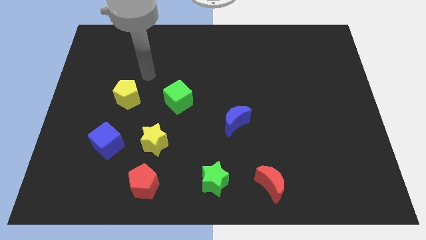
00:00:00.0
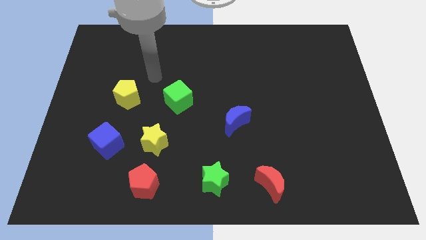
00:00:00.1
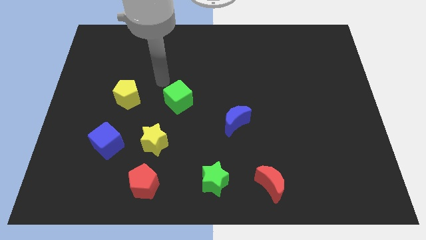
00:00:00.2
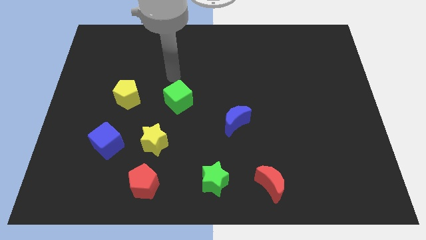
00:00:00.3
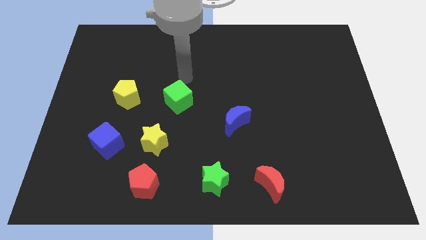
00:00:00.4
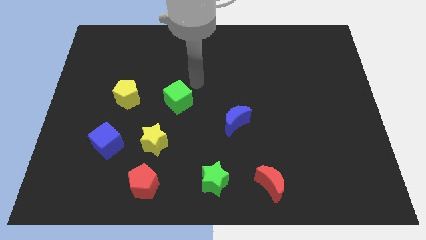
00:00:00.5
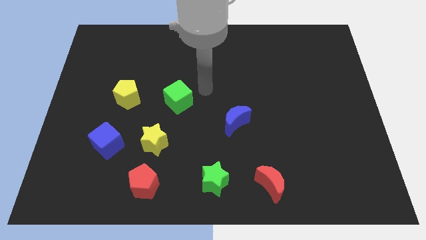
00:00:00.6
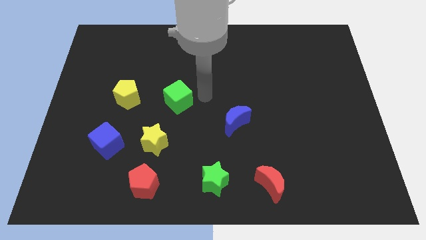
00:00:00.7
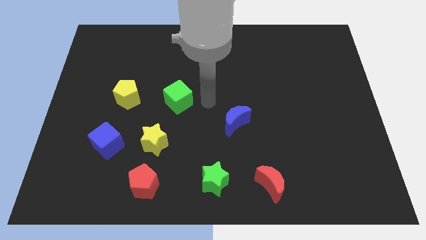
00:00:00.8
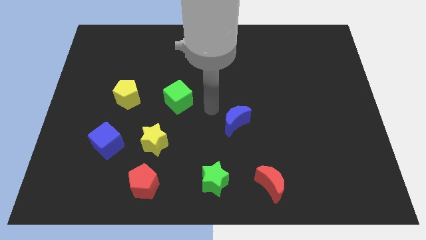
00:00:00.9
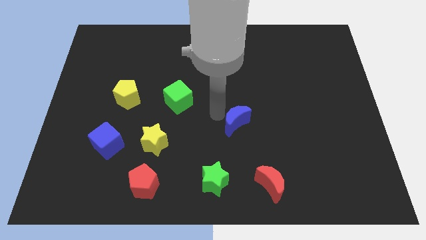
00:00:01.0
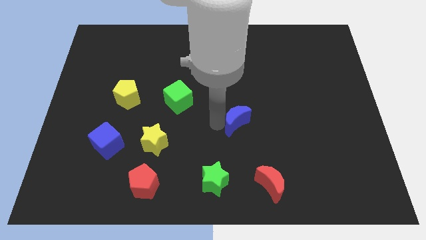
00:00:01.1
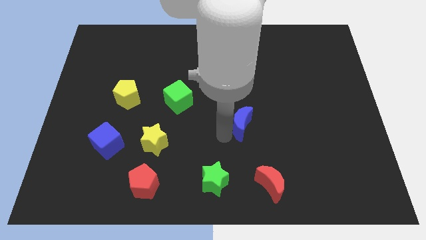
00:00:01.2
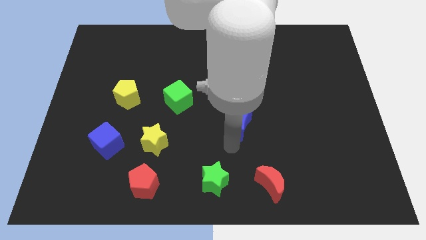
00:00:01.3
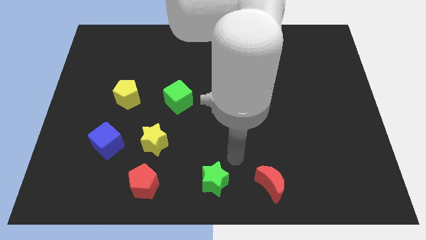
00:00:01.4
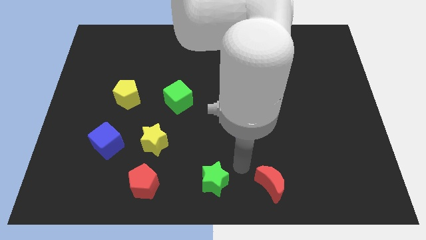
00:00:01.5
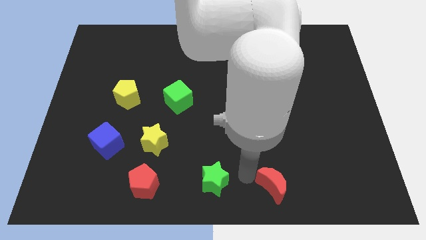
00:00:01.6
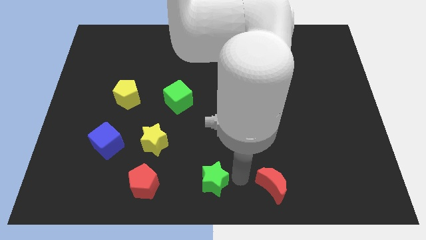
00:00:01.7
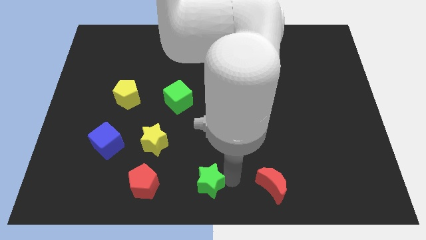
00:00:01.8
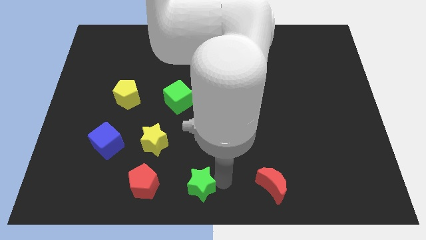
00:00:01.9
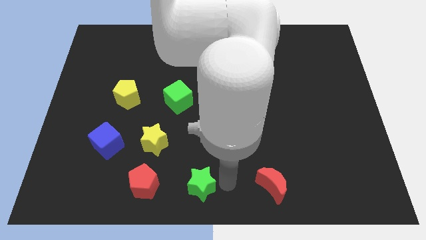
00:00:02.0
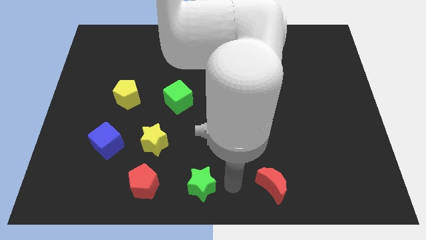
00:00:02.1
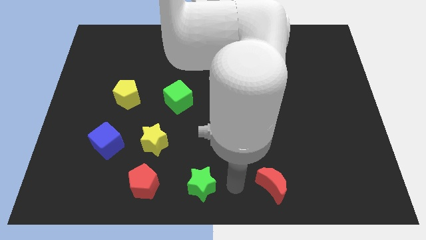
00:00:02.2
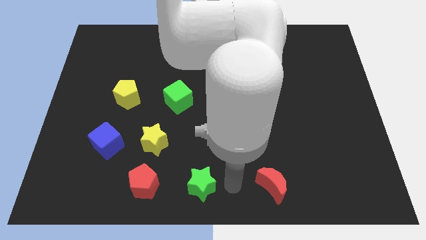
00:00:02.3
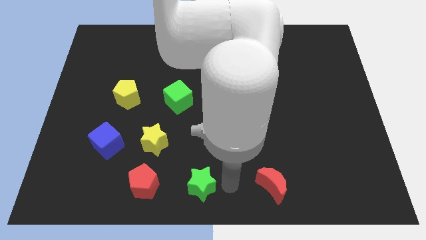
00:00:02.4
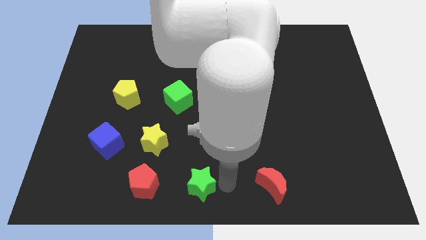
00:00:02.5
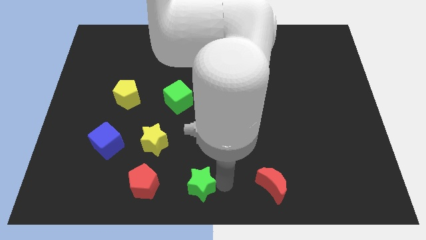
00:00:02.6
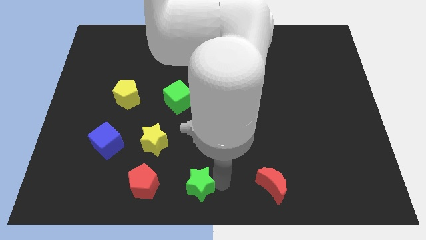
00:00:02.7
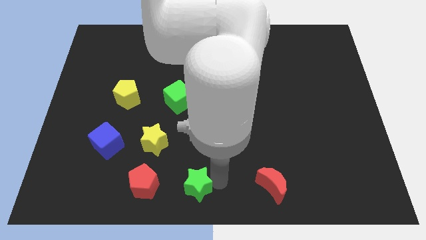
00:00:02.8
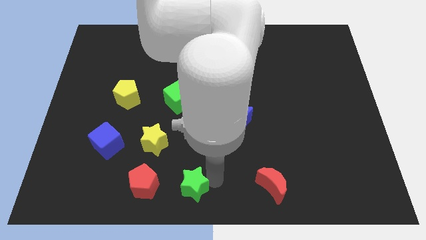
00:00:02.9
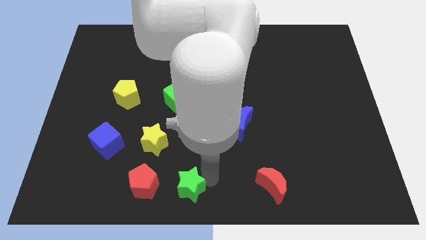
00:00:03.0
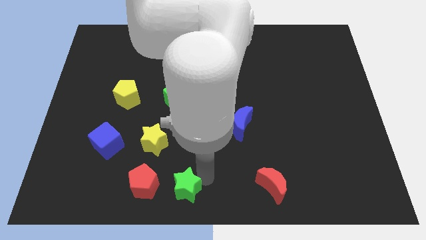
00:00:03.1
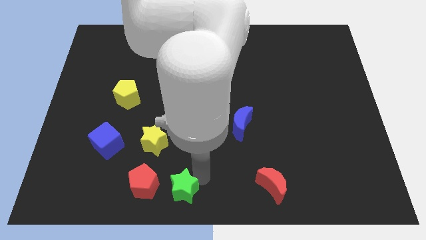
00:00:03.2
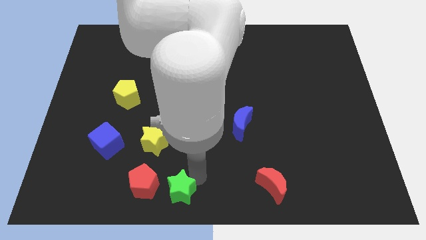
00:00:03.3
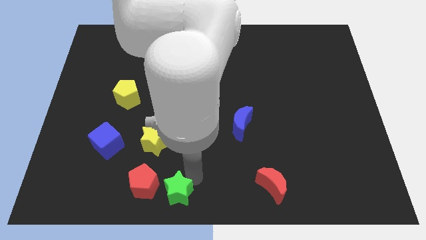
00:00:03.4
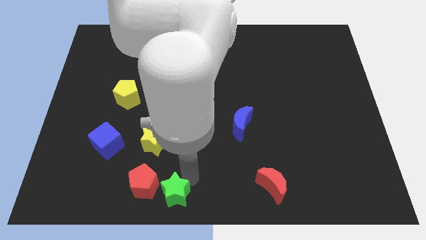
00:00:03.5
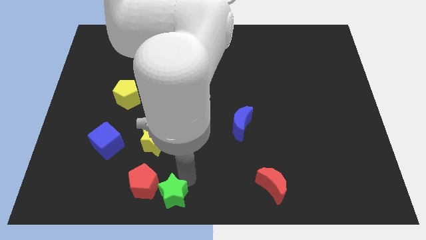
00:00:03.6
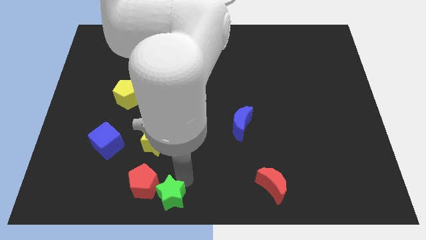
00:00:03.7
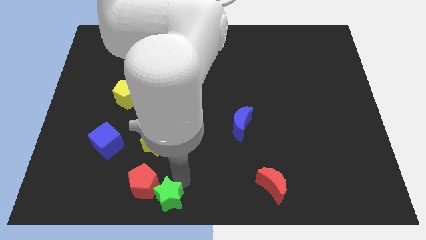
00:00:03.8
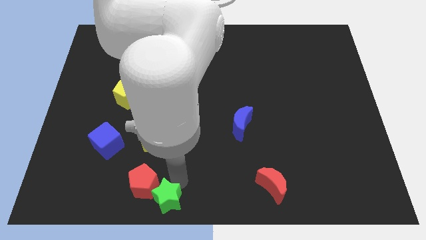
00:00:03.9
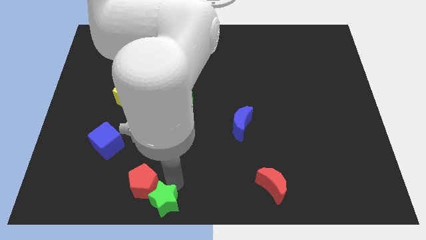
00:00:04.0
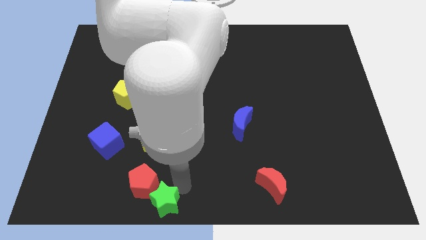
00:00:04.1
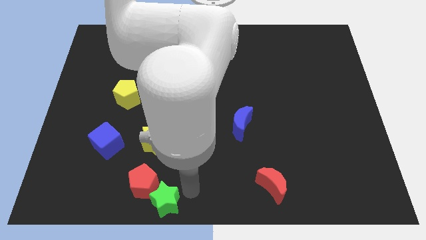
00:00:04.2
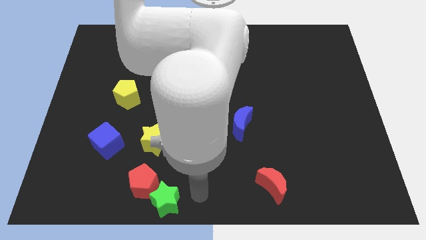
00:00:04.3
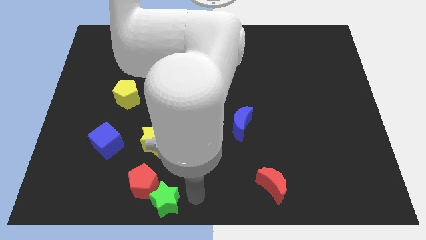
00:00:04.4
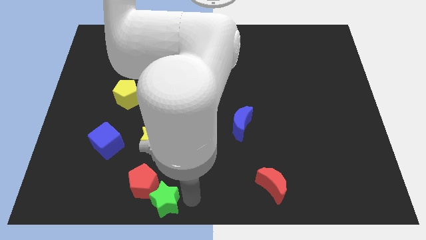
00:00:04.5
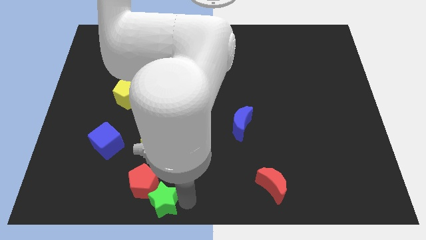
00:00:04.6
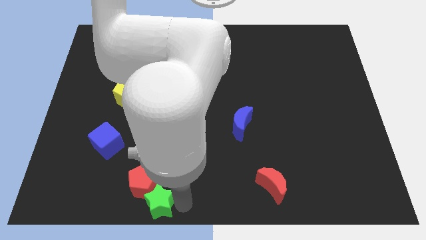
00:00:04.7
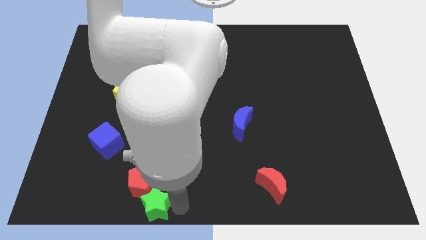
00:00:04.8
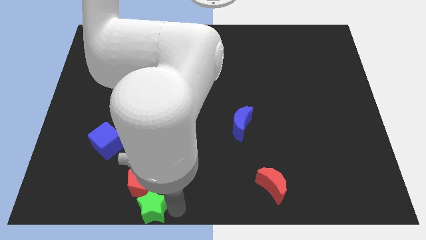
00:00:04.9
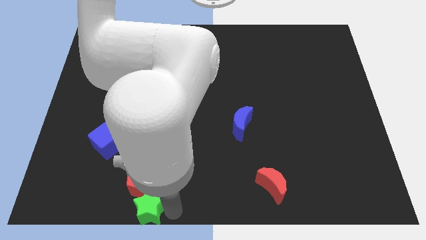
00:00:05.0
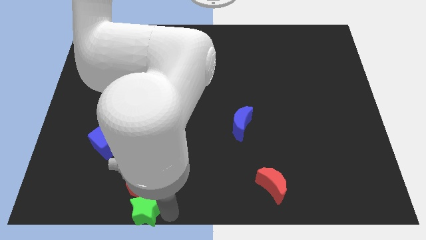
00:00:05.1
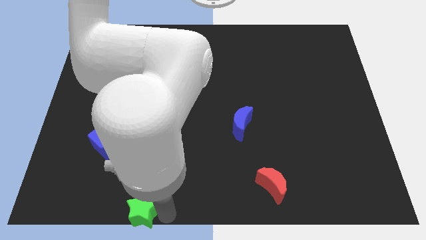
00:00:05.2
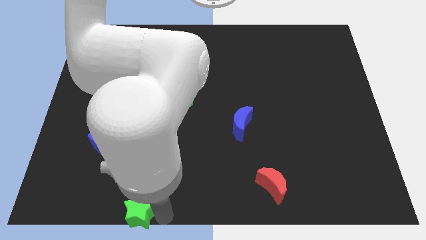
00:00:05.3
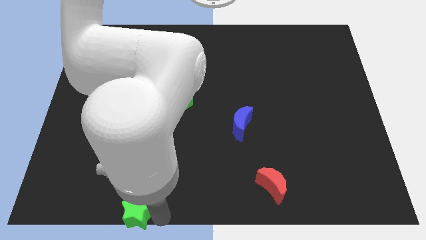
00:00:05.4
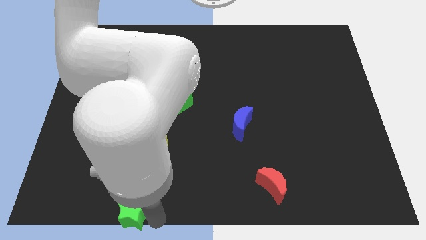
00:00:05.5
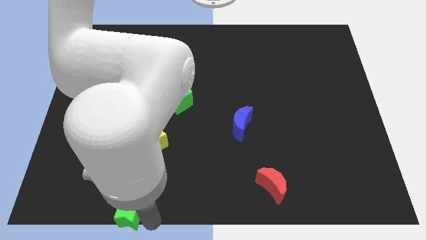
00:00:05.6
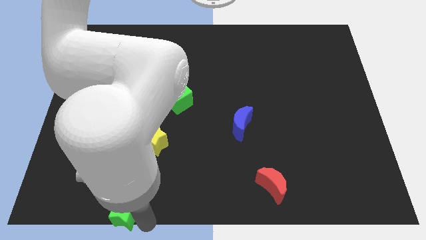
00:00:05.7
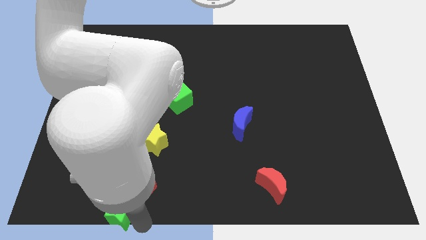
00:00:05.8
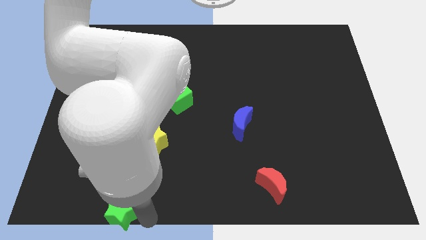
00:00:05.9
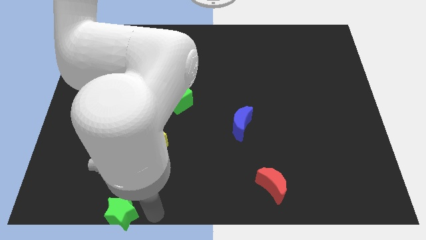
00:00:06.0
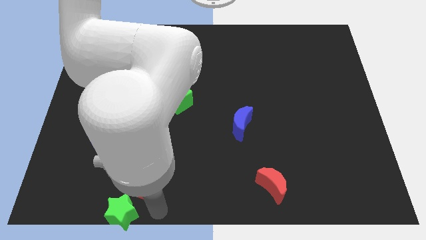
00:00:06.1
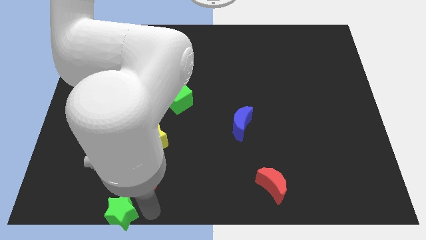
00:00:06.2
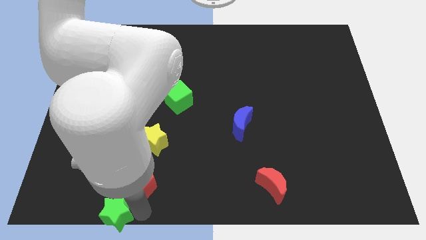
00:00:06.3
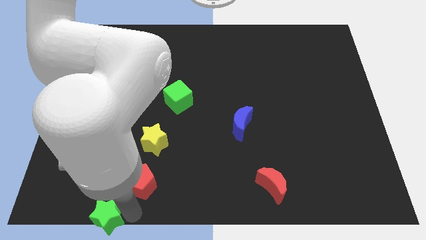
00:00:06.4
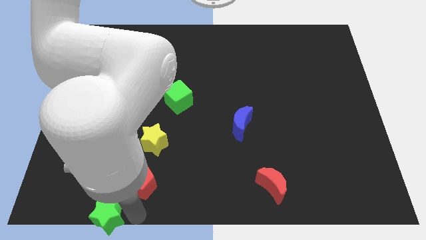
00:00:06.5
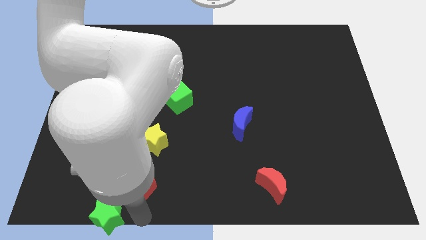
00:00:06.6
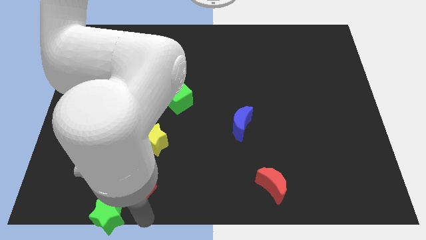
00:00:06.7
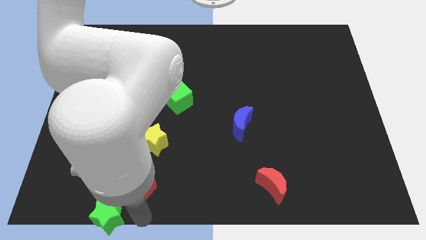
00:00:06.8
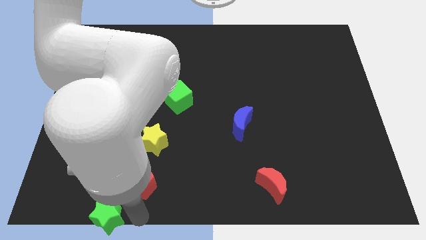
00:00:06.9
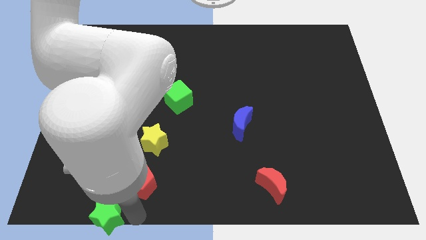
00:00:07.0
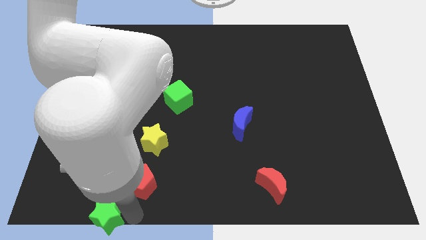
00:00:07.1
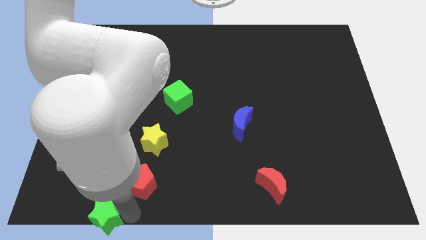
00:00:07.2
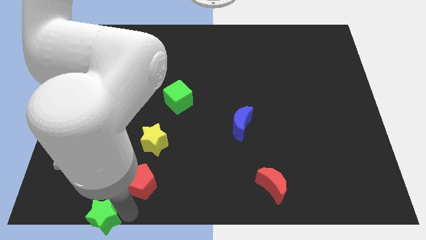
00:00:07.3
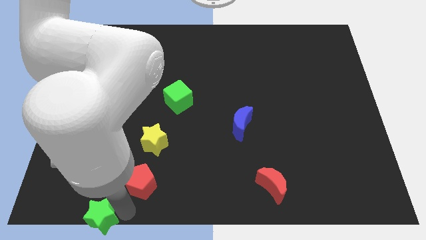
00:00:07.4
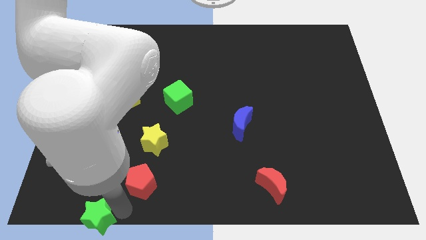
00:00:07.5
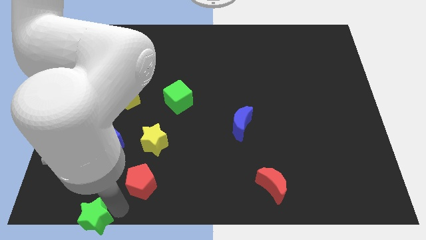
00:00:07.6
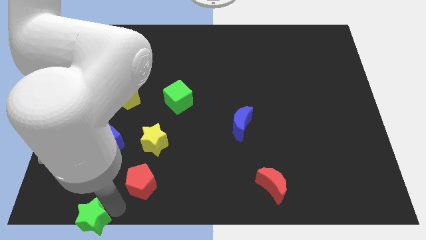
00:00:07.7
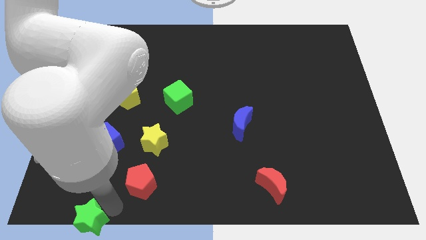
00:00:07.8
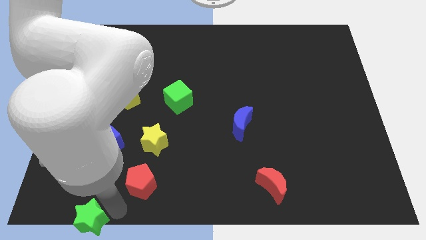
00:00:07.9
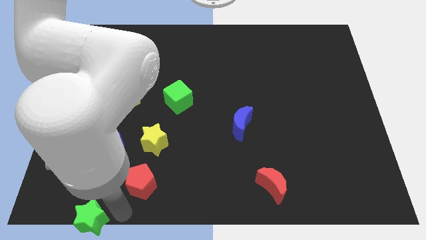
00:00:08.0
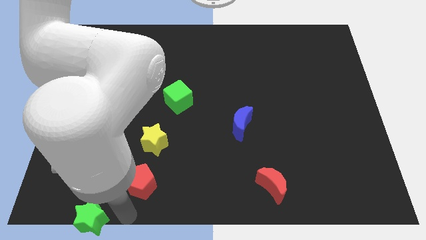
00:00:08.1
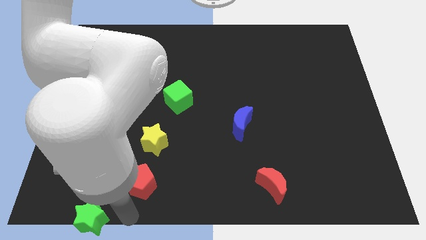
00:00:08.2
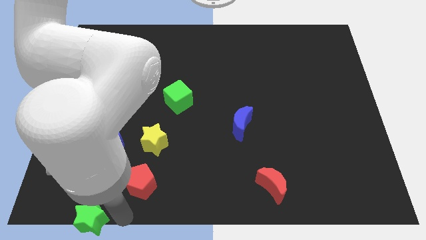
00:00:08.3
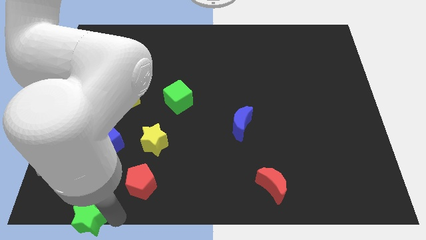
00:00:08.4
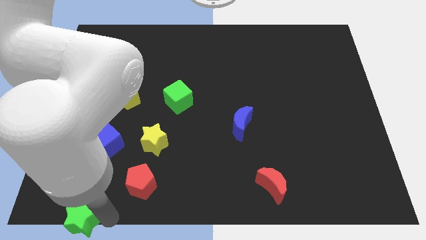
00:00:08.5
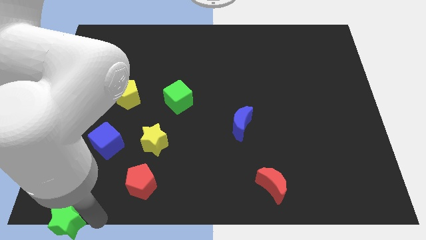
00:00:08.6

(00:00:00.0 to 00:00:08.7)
put the green star to the bottom left corner
